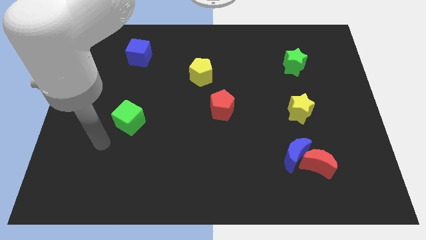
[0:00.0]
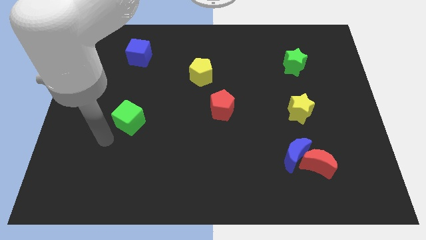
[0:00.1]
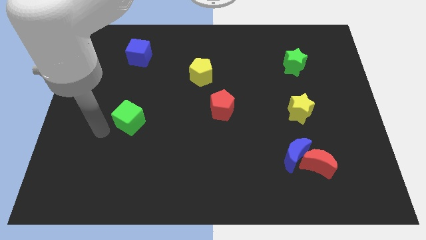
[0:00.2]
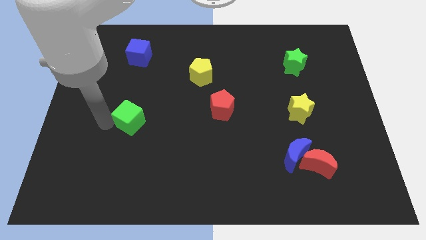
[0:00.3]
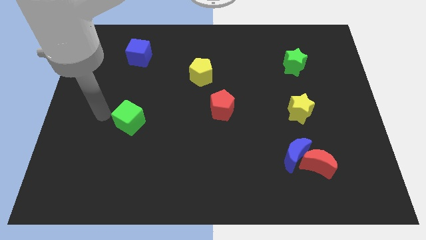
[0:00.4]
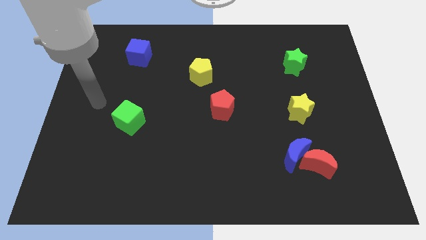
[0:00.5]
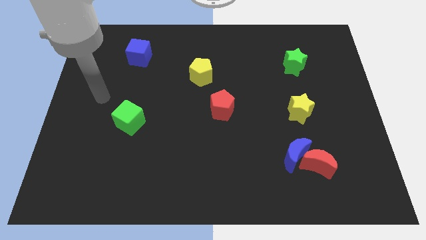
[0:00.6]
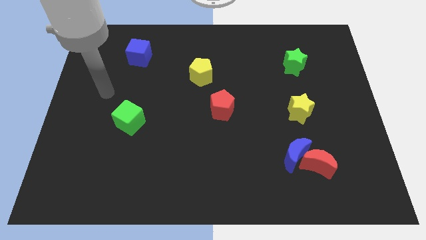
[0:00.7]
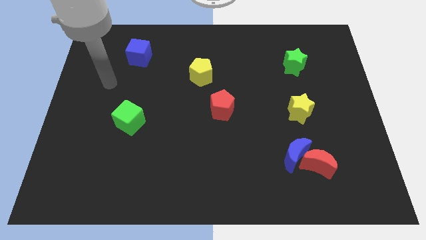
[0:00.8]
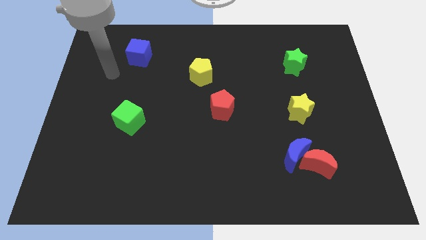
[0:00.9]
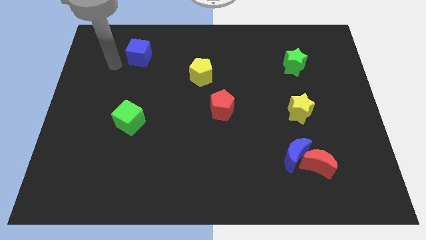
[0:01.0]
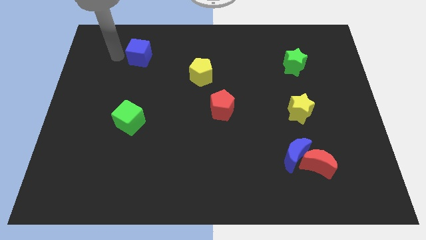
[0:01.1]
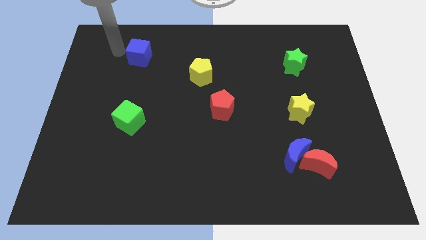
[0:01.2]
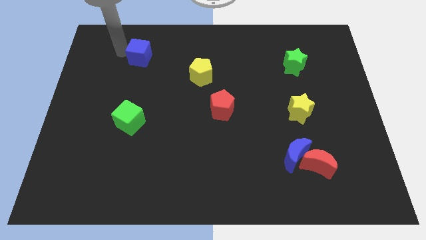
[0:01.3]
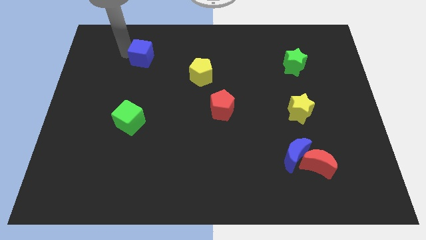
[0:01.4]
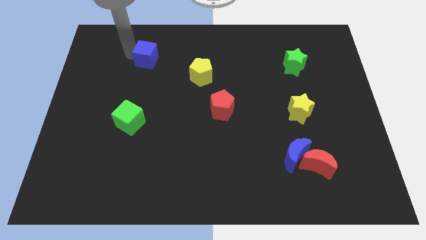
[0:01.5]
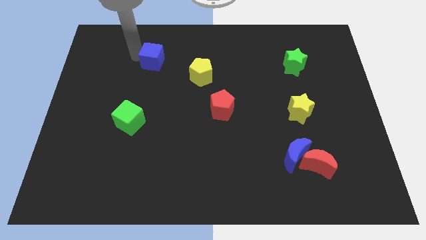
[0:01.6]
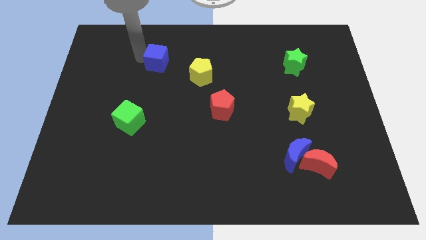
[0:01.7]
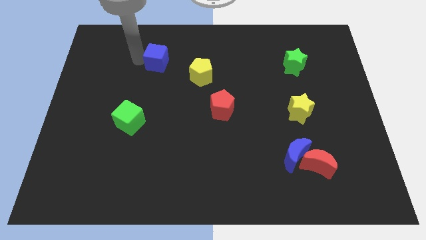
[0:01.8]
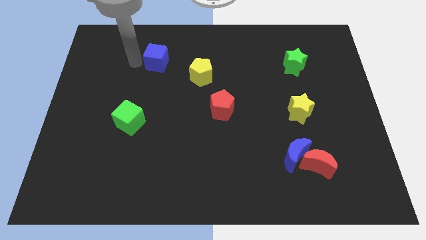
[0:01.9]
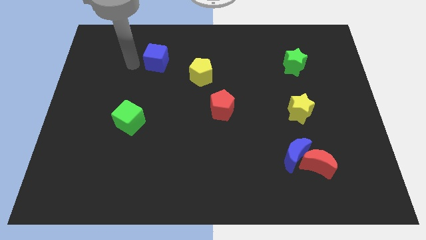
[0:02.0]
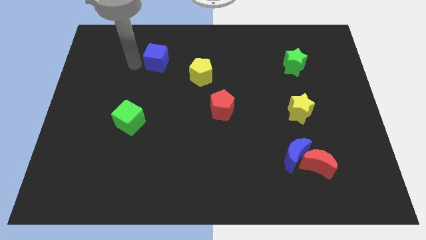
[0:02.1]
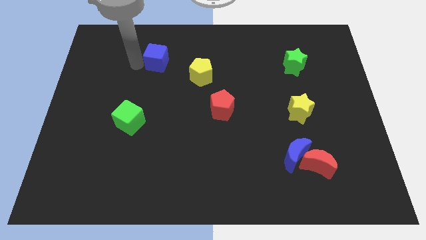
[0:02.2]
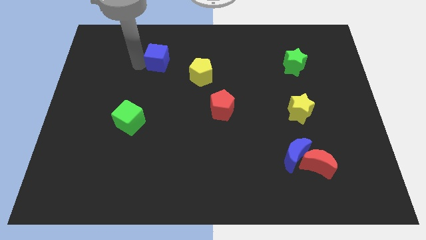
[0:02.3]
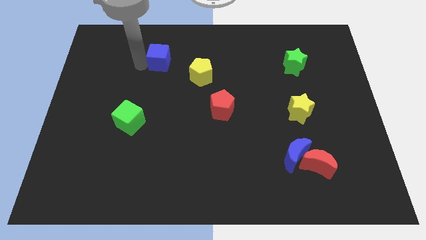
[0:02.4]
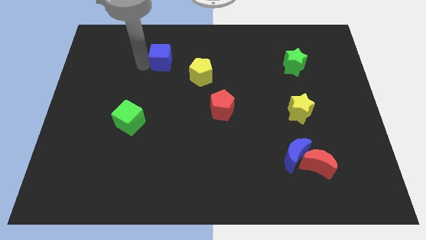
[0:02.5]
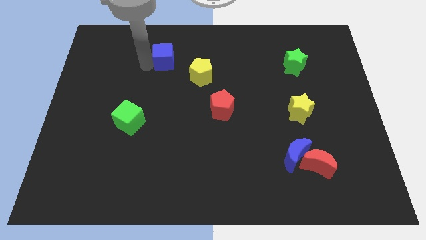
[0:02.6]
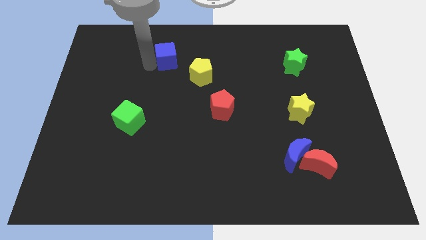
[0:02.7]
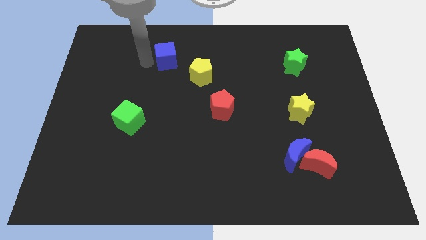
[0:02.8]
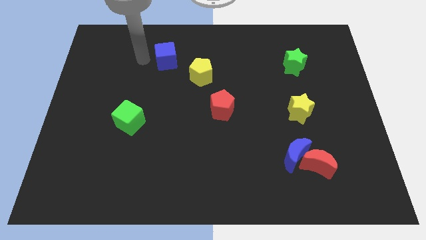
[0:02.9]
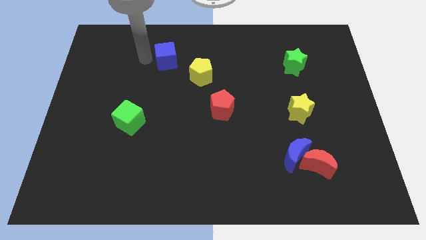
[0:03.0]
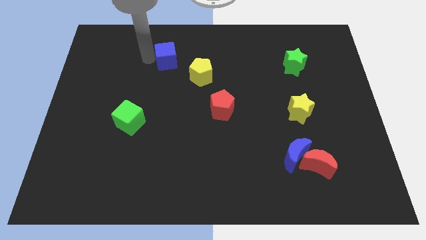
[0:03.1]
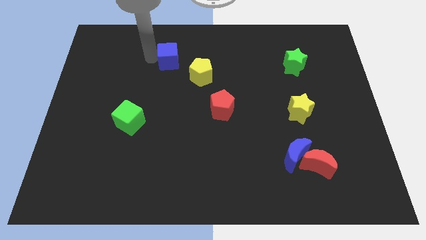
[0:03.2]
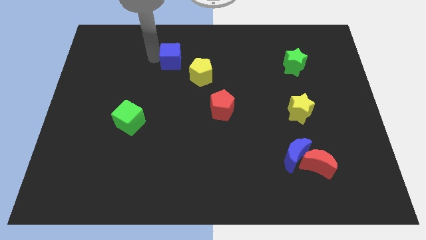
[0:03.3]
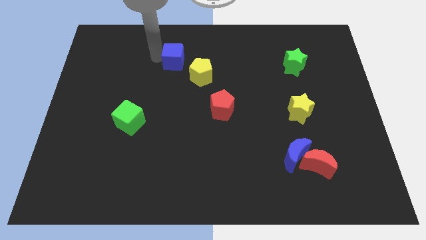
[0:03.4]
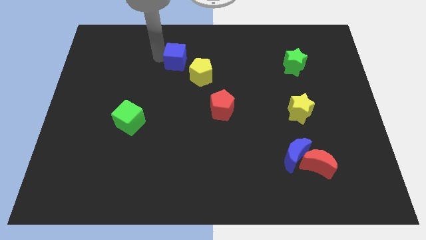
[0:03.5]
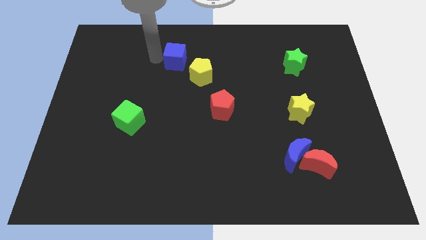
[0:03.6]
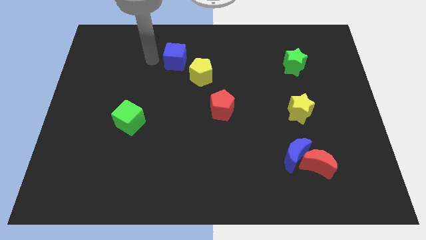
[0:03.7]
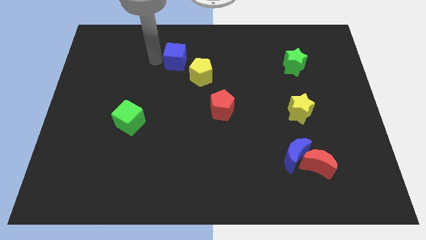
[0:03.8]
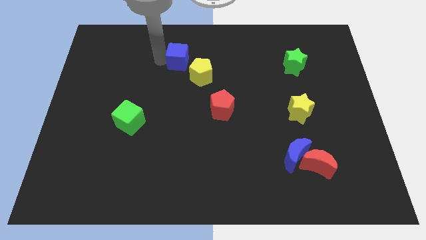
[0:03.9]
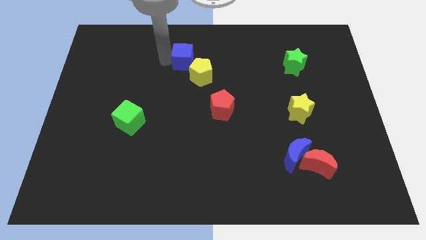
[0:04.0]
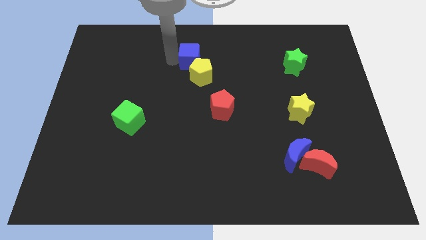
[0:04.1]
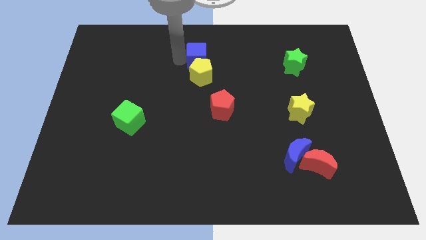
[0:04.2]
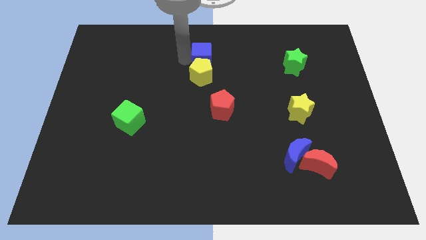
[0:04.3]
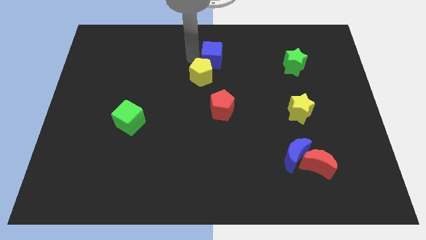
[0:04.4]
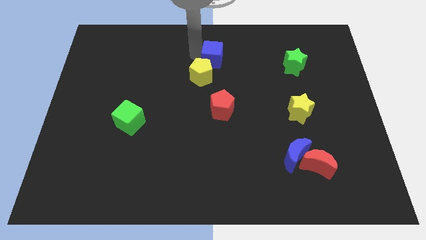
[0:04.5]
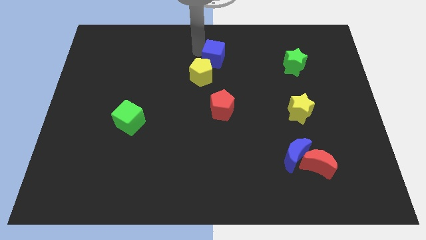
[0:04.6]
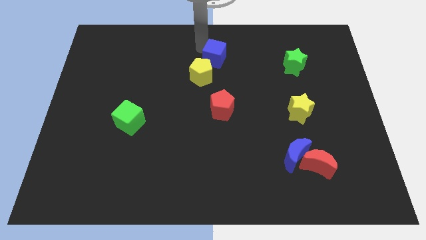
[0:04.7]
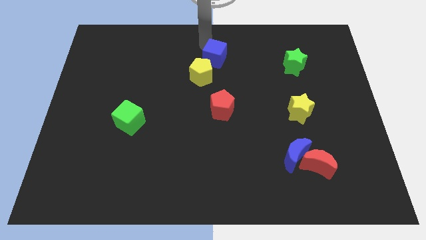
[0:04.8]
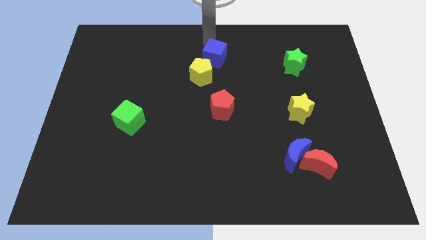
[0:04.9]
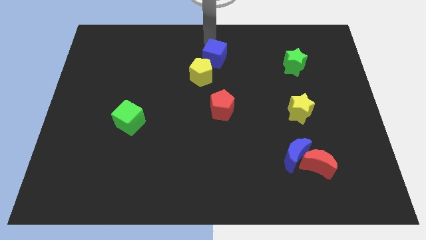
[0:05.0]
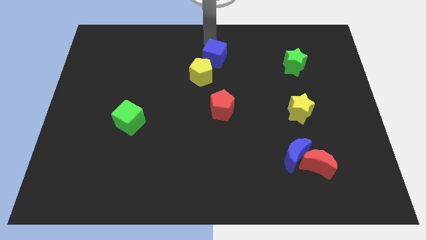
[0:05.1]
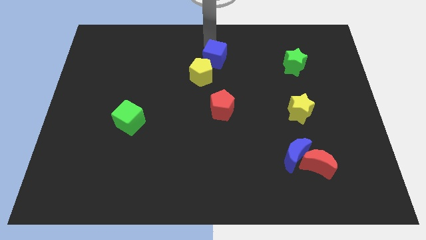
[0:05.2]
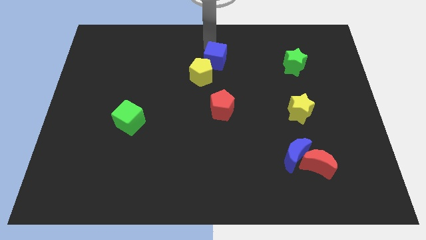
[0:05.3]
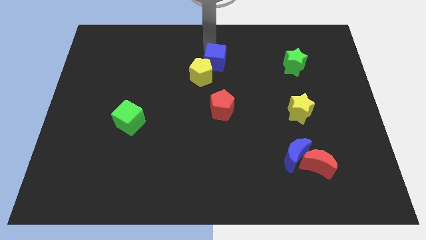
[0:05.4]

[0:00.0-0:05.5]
put the blue cube above the red pentagon

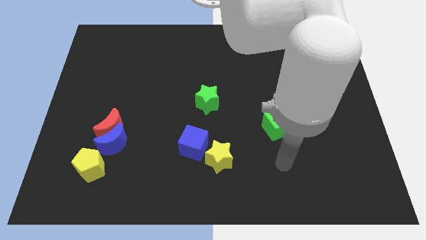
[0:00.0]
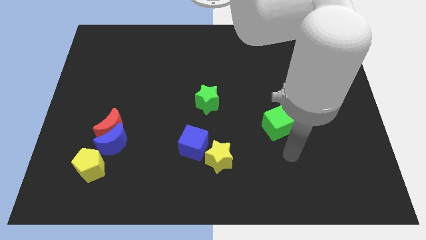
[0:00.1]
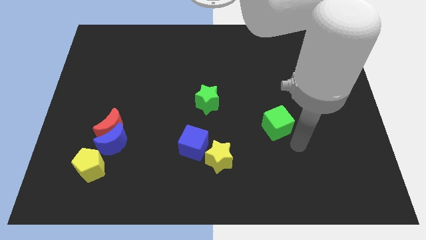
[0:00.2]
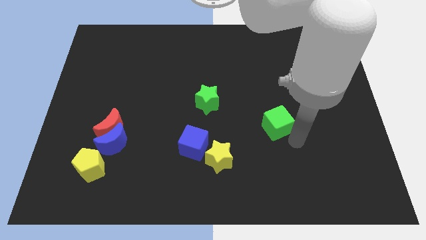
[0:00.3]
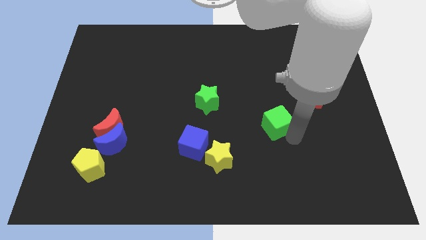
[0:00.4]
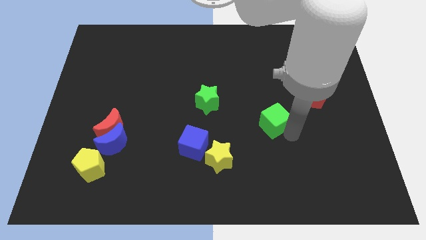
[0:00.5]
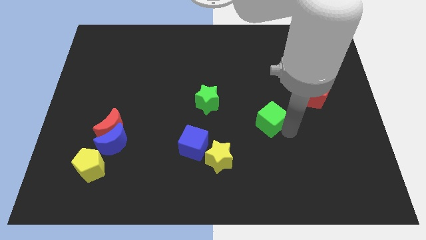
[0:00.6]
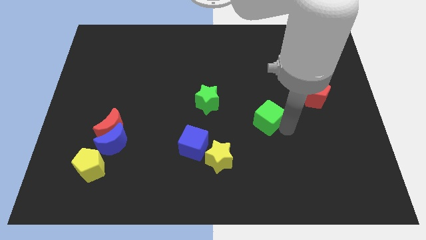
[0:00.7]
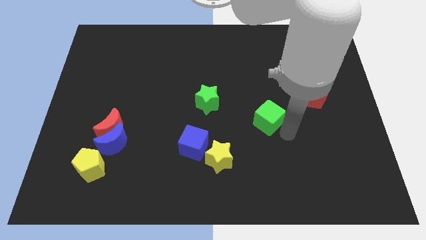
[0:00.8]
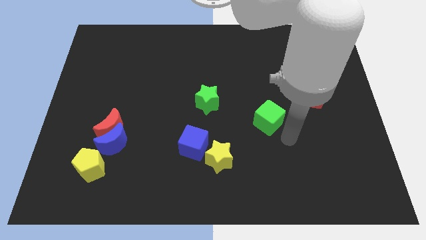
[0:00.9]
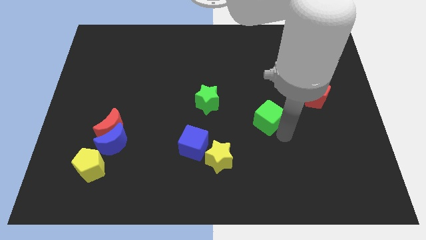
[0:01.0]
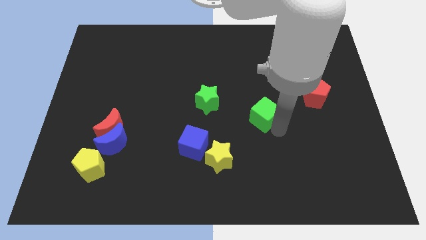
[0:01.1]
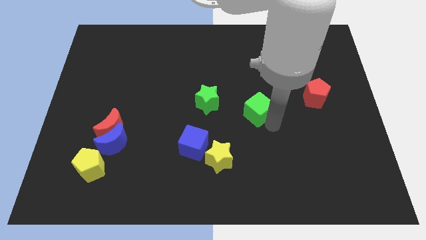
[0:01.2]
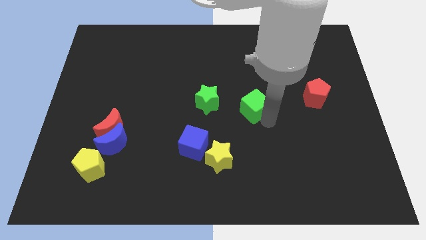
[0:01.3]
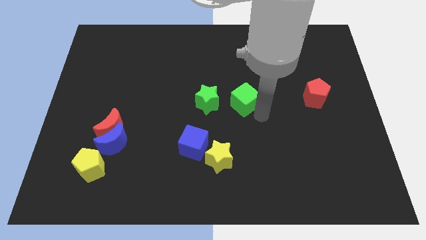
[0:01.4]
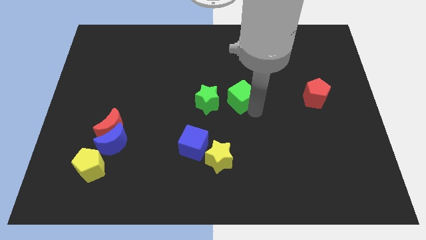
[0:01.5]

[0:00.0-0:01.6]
slide the green cube to the top right side of the green star
